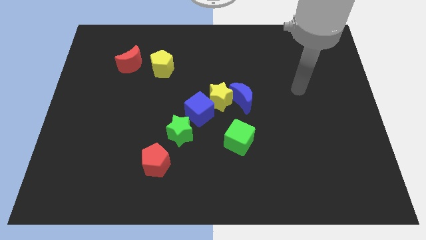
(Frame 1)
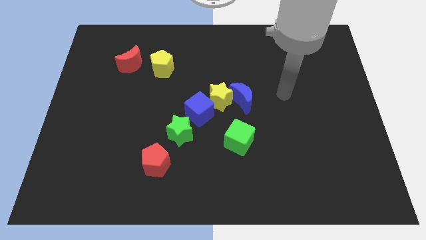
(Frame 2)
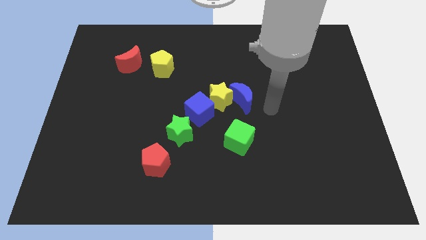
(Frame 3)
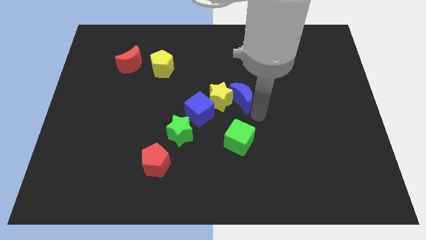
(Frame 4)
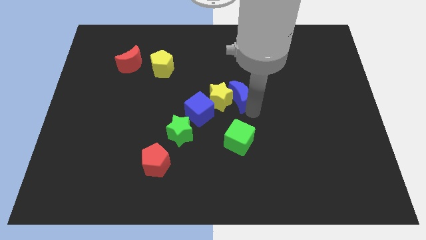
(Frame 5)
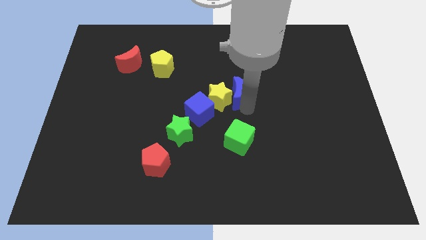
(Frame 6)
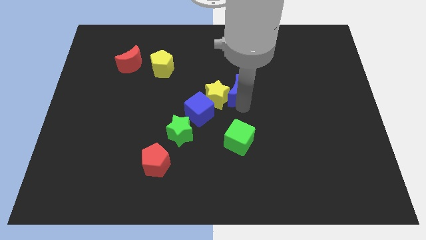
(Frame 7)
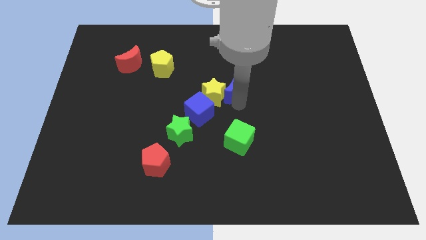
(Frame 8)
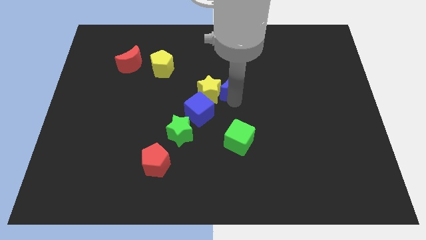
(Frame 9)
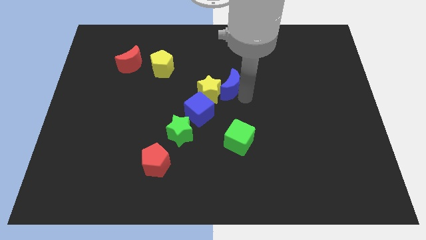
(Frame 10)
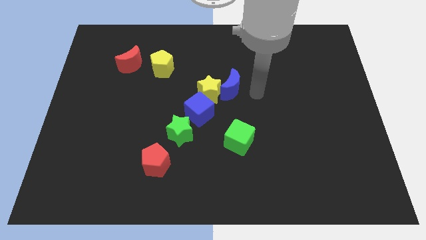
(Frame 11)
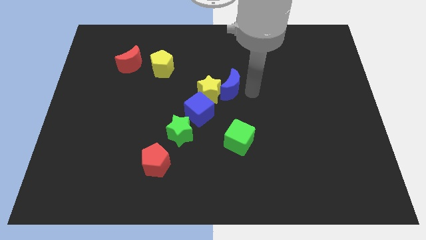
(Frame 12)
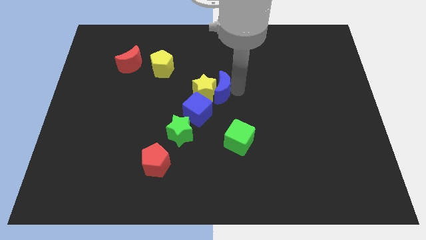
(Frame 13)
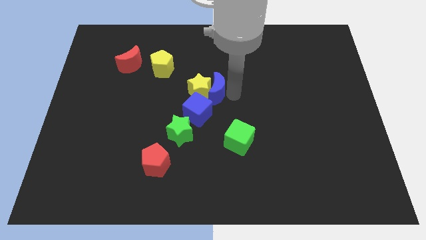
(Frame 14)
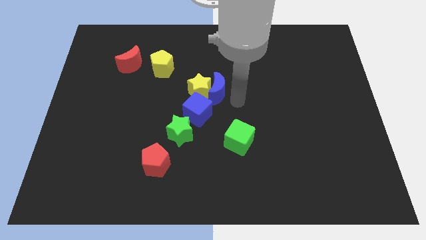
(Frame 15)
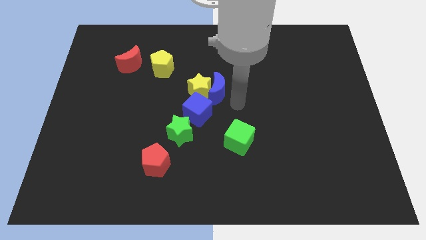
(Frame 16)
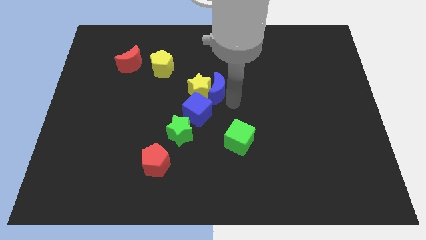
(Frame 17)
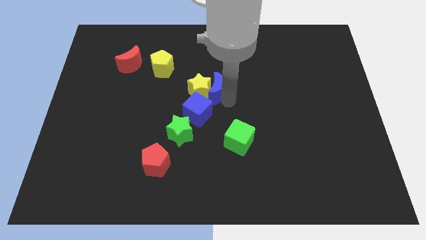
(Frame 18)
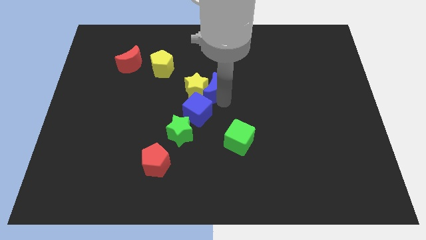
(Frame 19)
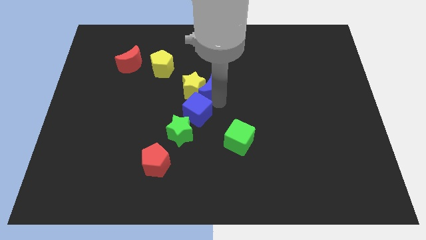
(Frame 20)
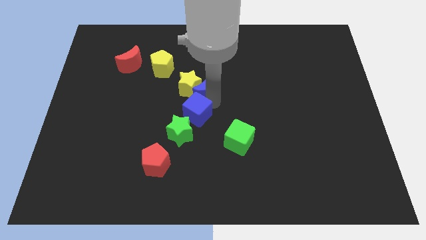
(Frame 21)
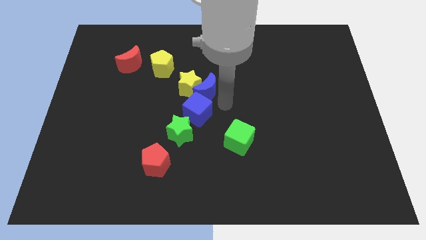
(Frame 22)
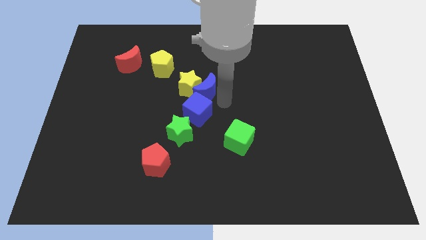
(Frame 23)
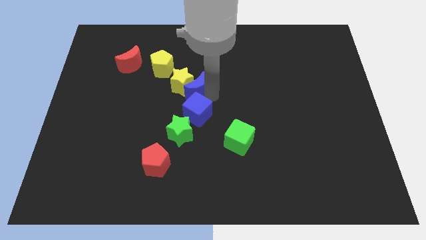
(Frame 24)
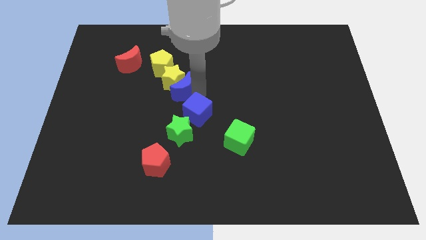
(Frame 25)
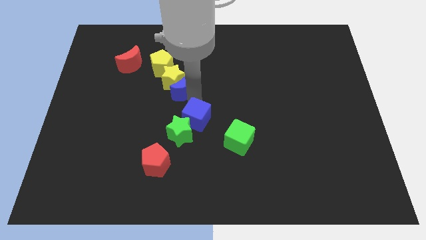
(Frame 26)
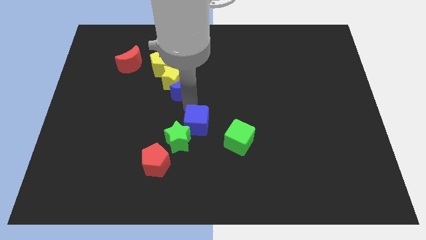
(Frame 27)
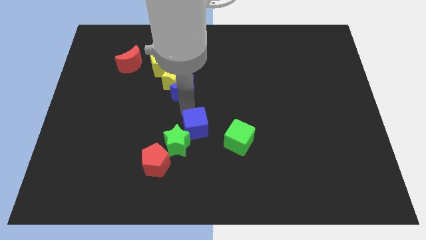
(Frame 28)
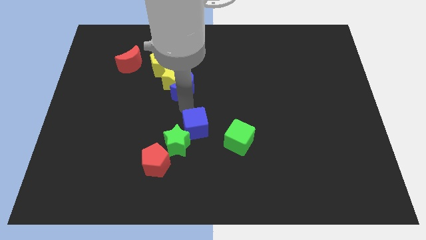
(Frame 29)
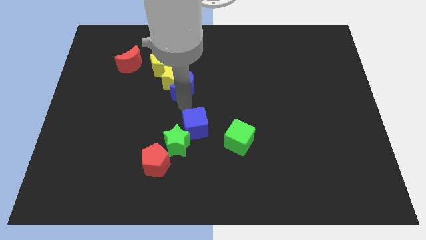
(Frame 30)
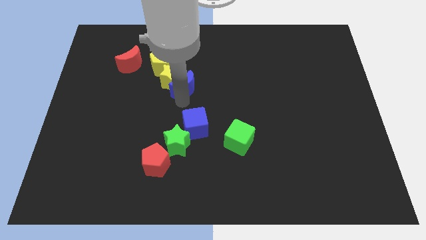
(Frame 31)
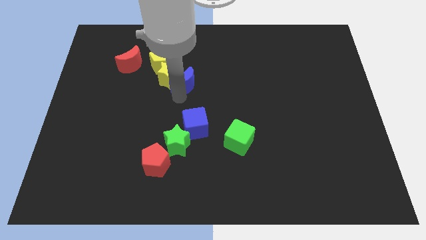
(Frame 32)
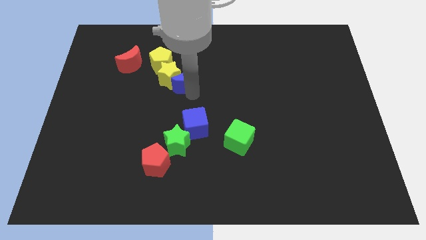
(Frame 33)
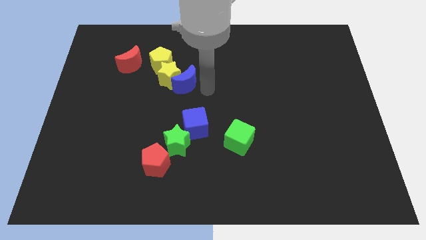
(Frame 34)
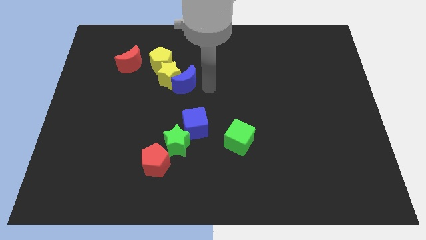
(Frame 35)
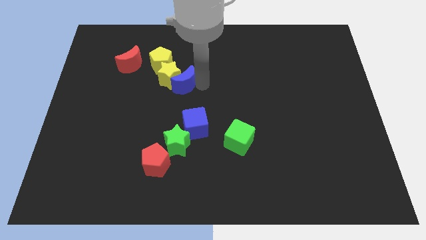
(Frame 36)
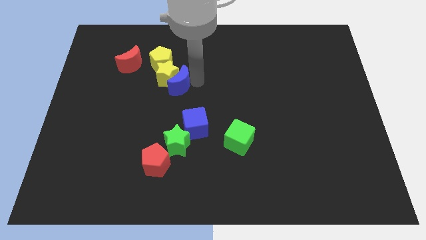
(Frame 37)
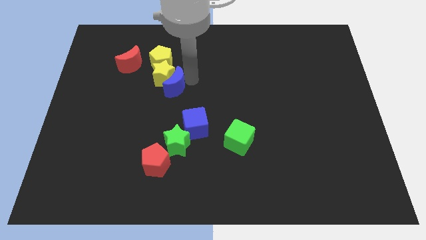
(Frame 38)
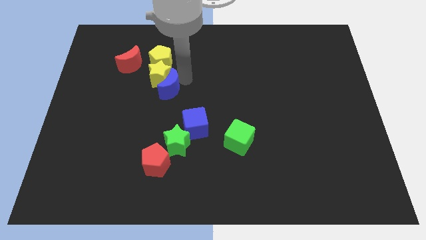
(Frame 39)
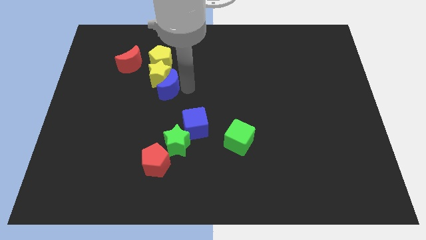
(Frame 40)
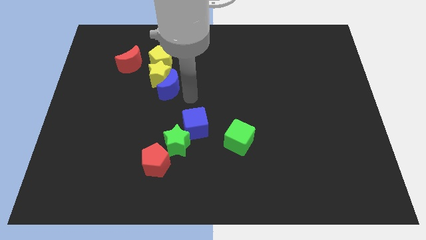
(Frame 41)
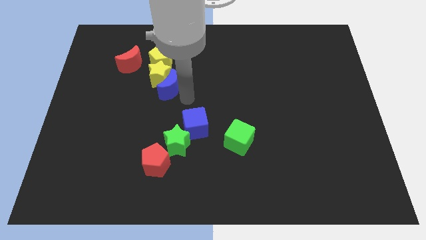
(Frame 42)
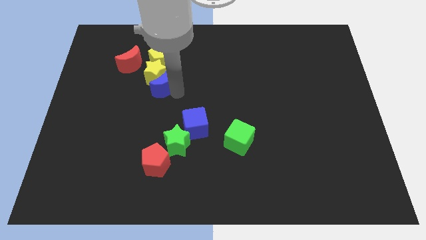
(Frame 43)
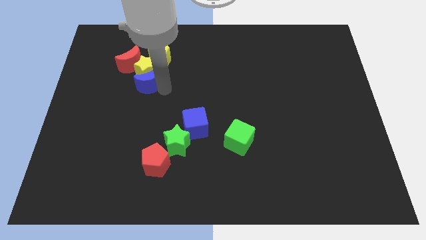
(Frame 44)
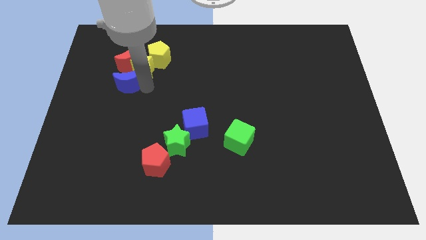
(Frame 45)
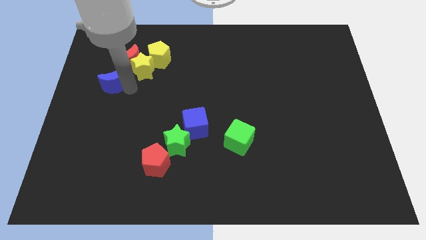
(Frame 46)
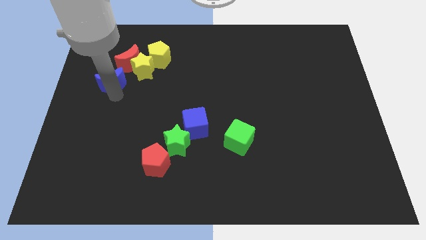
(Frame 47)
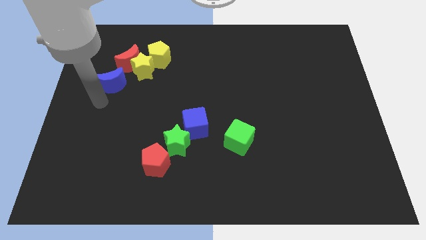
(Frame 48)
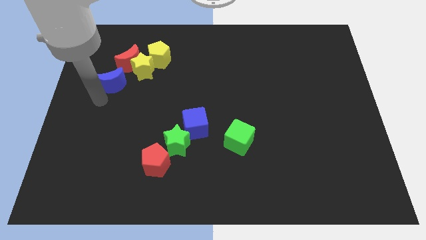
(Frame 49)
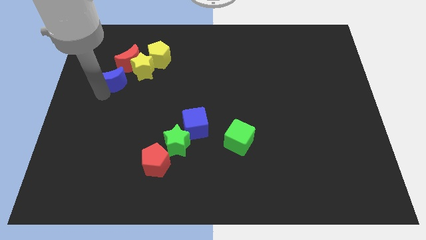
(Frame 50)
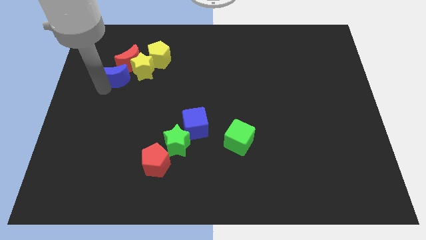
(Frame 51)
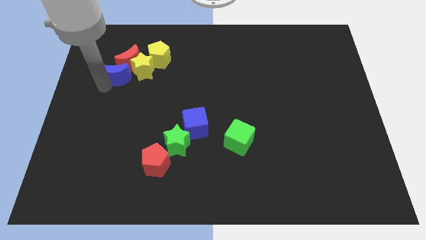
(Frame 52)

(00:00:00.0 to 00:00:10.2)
put the blue moon towards the red moon

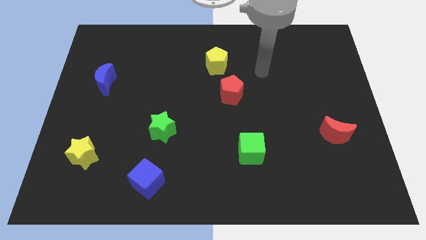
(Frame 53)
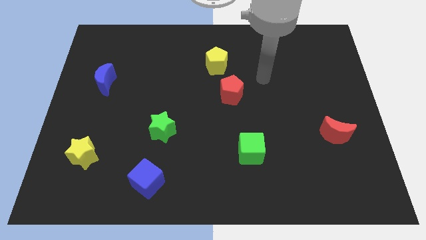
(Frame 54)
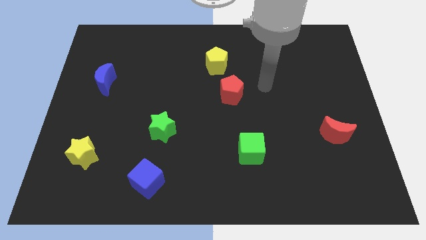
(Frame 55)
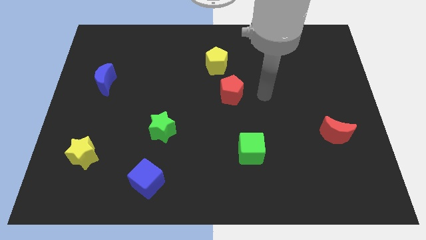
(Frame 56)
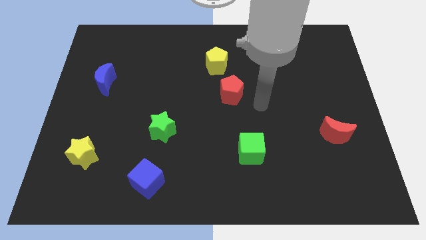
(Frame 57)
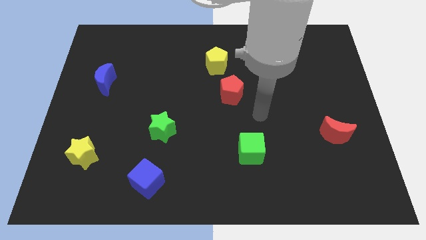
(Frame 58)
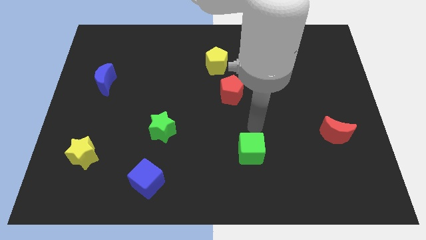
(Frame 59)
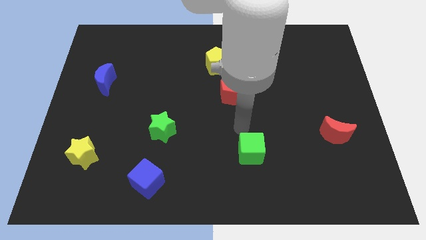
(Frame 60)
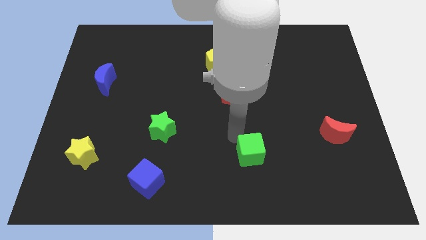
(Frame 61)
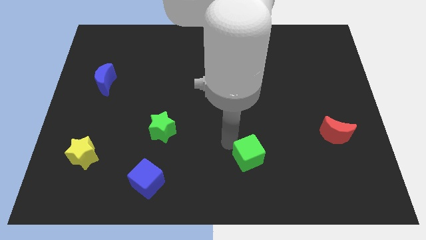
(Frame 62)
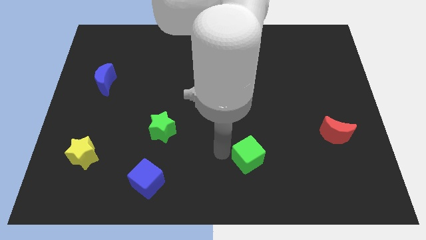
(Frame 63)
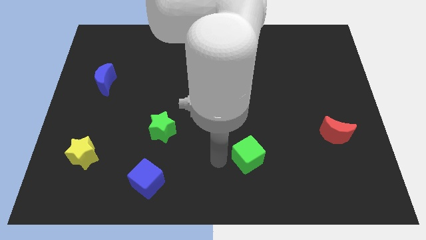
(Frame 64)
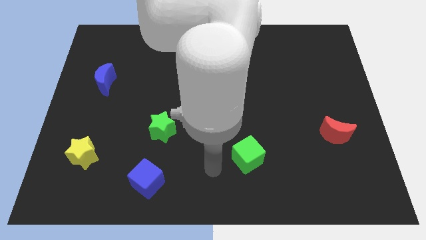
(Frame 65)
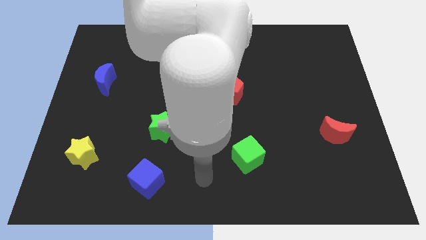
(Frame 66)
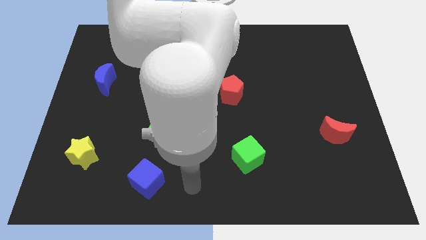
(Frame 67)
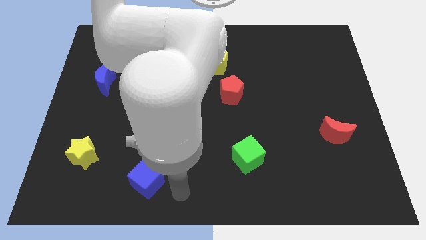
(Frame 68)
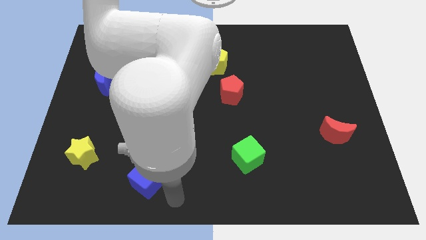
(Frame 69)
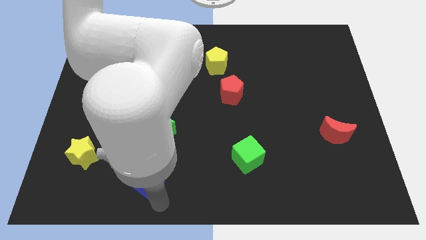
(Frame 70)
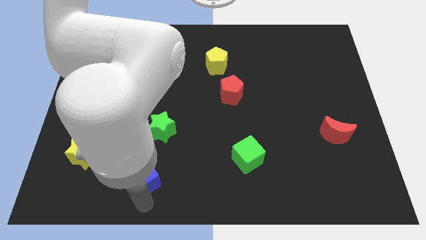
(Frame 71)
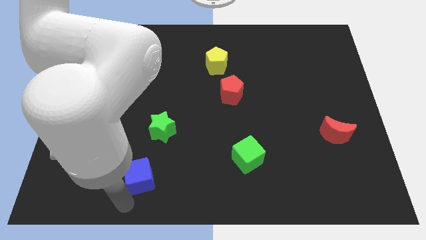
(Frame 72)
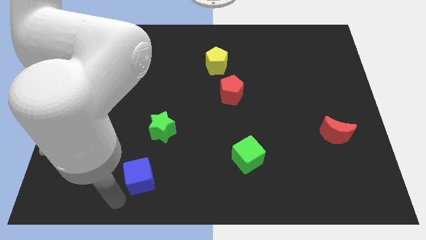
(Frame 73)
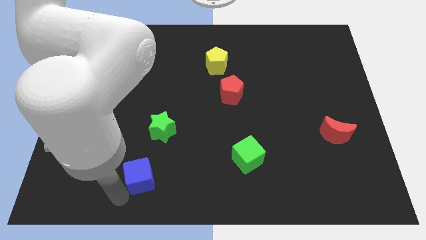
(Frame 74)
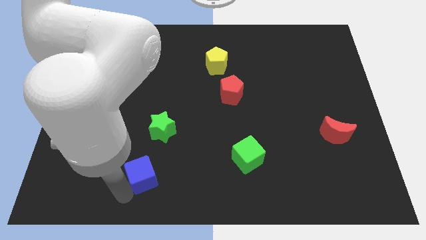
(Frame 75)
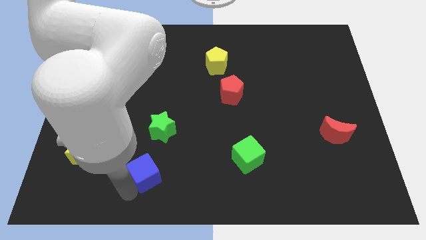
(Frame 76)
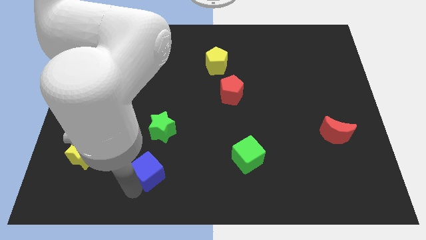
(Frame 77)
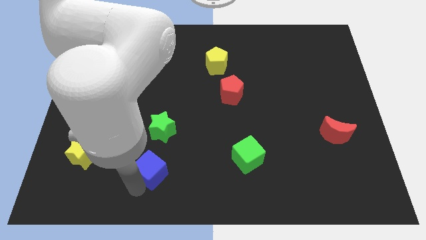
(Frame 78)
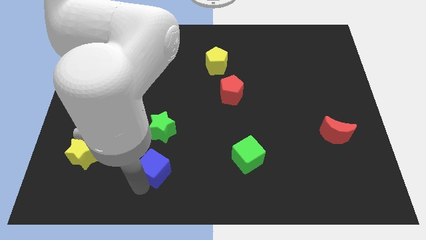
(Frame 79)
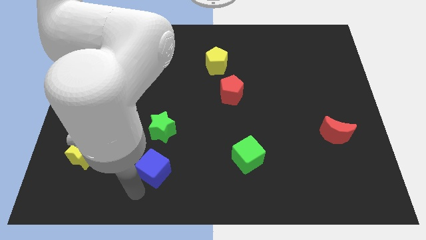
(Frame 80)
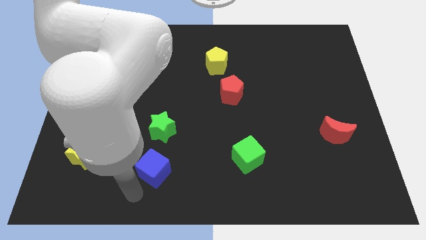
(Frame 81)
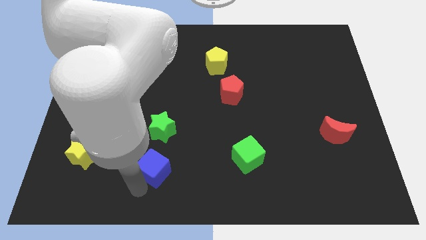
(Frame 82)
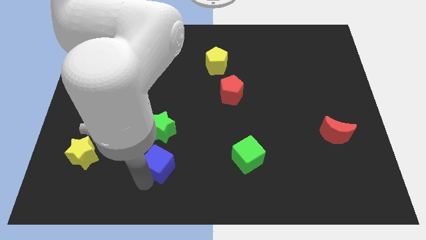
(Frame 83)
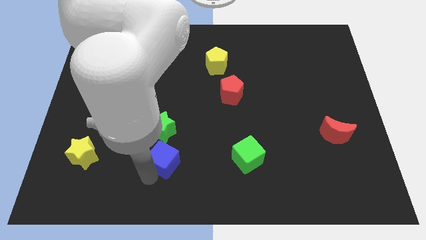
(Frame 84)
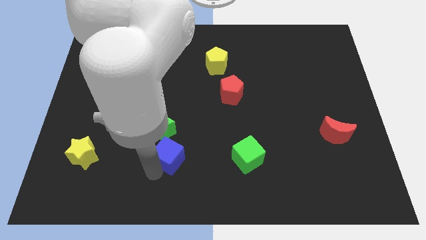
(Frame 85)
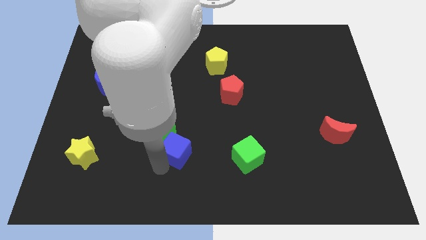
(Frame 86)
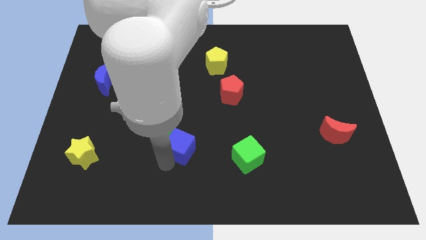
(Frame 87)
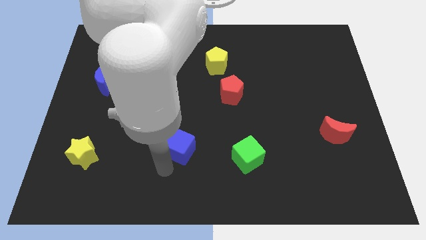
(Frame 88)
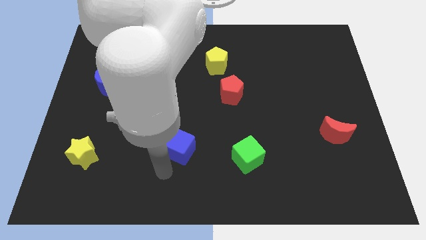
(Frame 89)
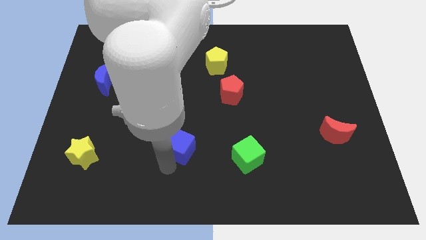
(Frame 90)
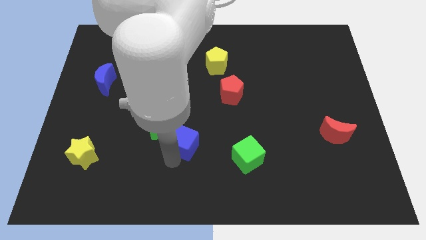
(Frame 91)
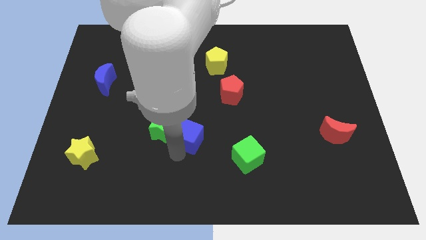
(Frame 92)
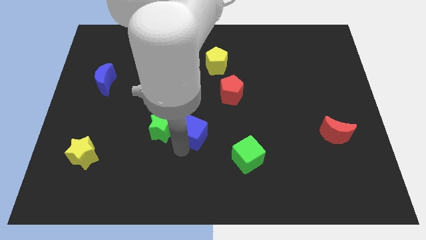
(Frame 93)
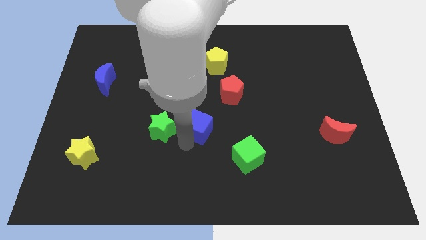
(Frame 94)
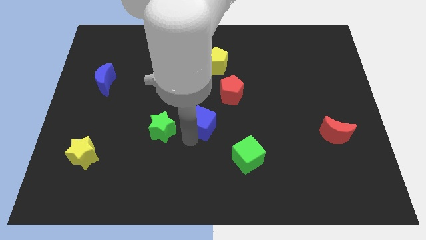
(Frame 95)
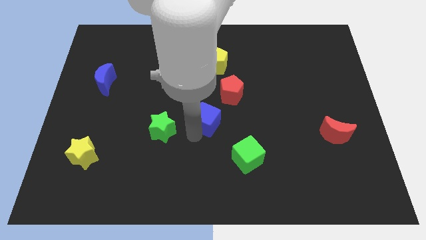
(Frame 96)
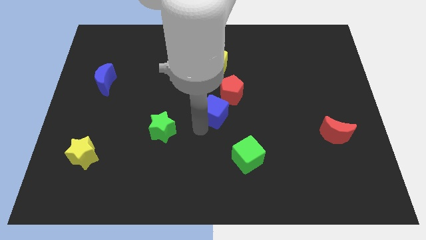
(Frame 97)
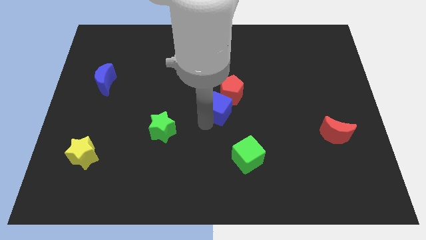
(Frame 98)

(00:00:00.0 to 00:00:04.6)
move the blue cube towards the red pentagon
